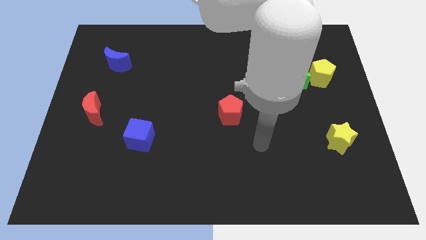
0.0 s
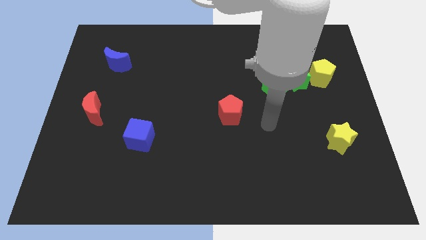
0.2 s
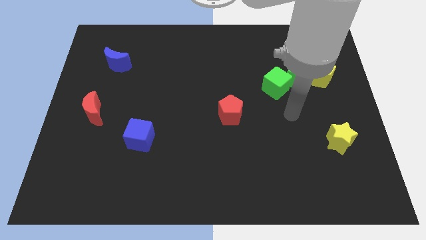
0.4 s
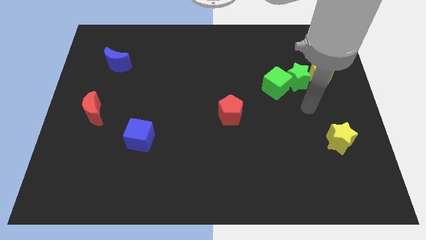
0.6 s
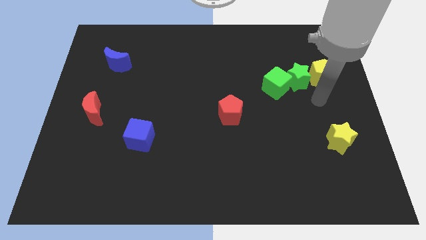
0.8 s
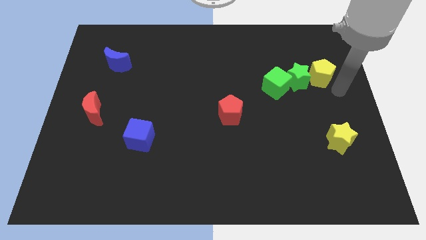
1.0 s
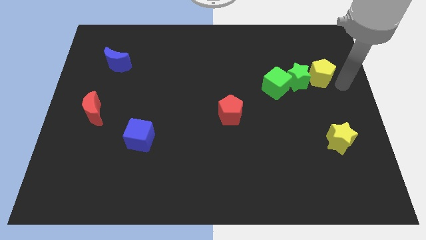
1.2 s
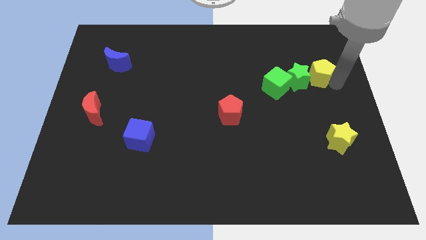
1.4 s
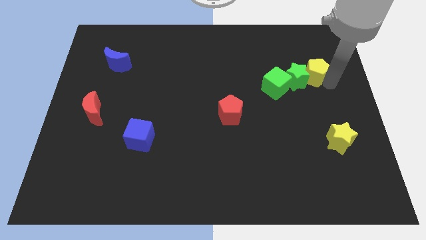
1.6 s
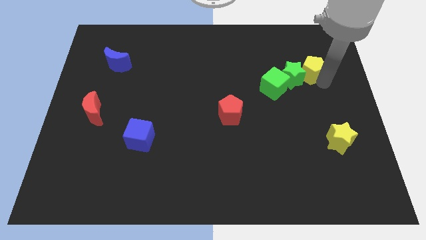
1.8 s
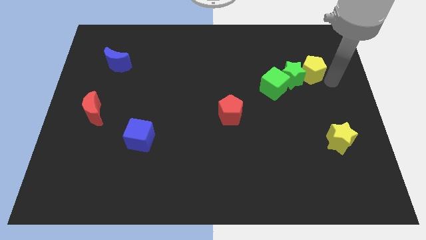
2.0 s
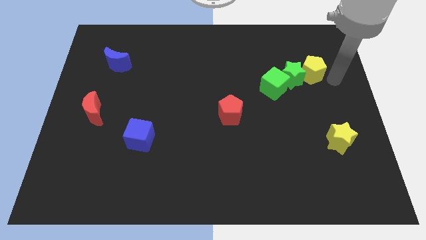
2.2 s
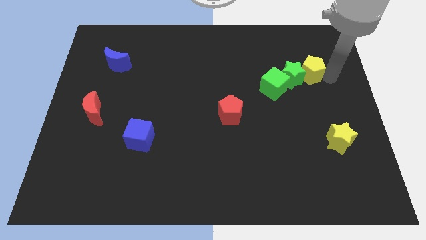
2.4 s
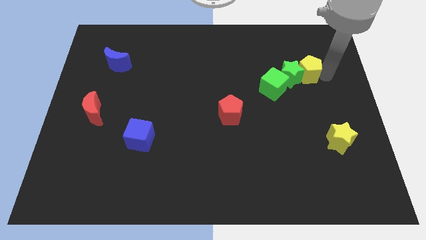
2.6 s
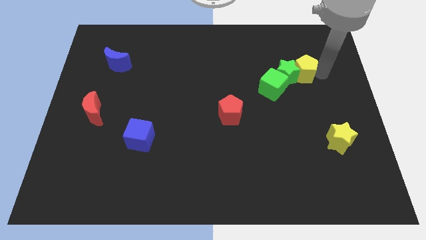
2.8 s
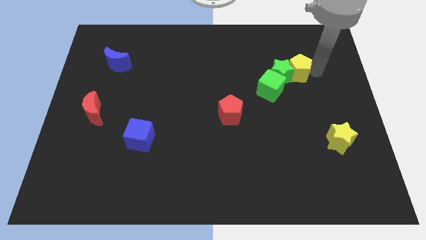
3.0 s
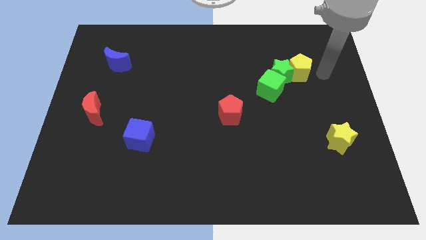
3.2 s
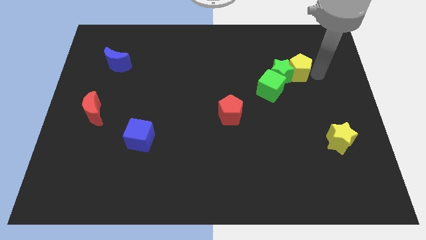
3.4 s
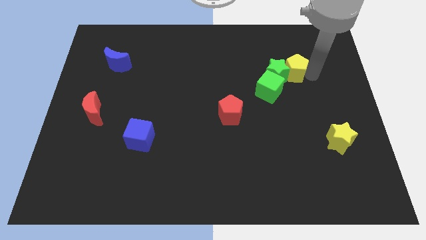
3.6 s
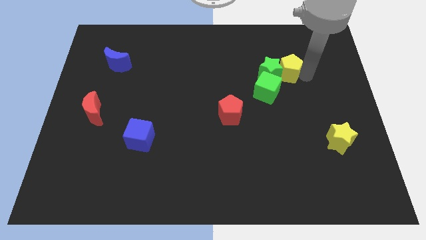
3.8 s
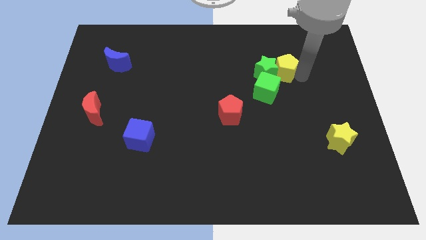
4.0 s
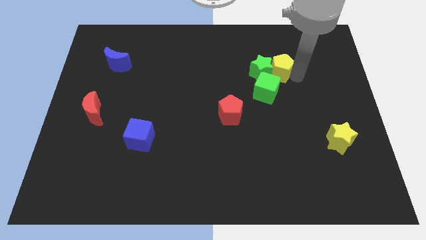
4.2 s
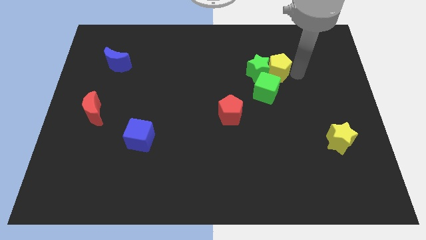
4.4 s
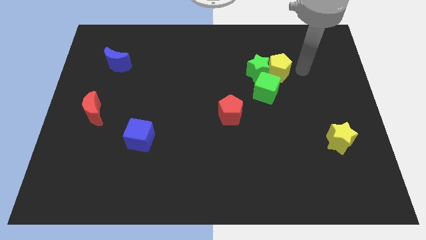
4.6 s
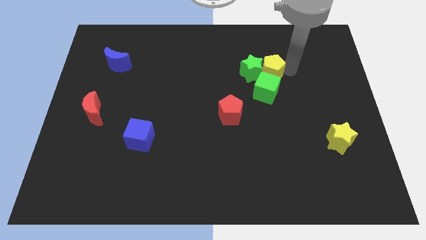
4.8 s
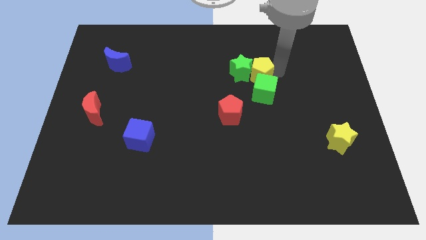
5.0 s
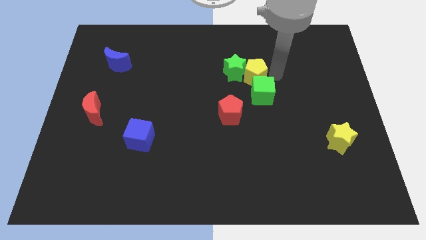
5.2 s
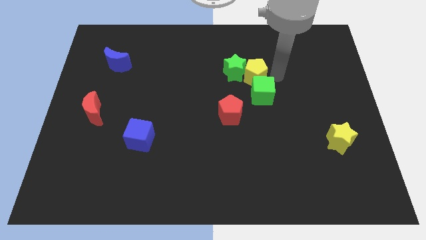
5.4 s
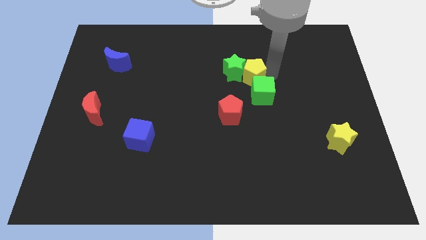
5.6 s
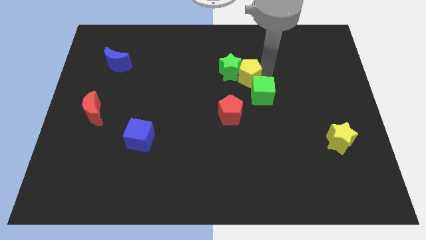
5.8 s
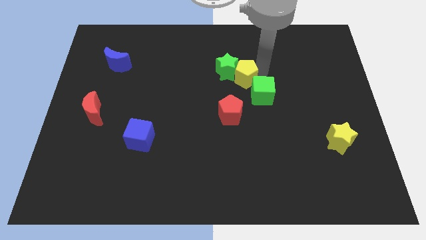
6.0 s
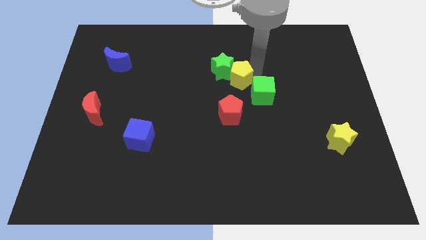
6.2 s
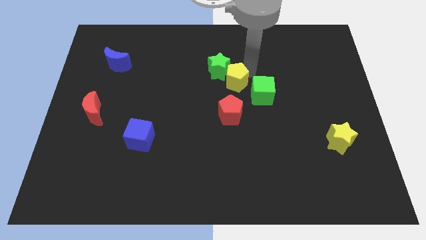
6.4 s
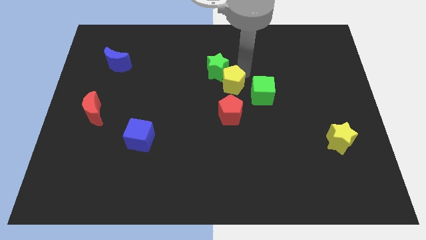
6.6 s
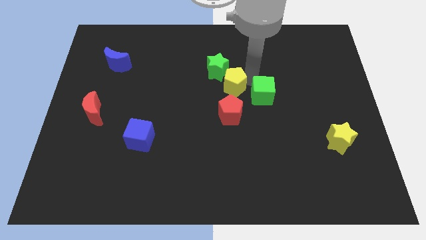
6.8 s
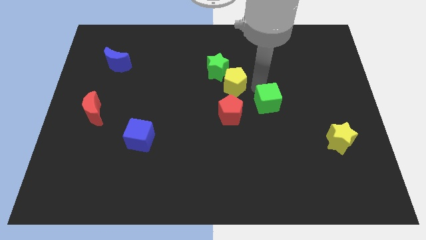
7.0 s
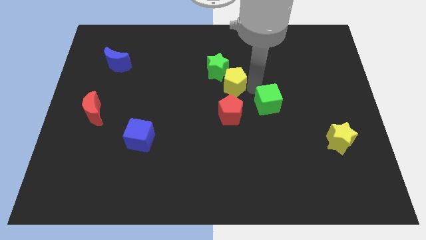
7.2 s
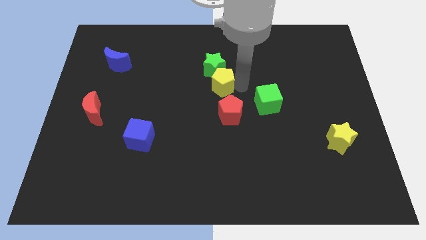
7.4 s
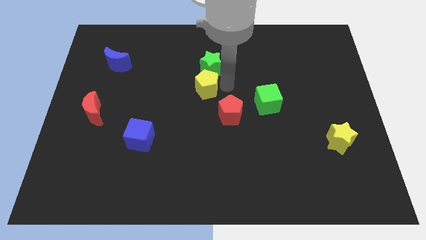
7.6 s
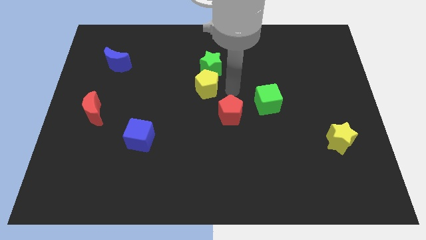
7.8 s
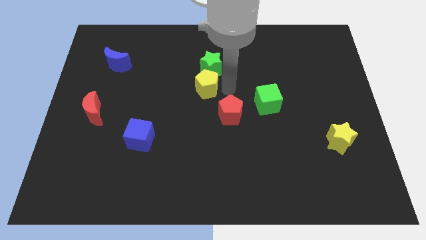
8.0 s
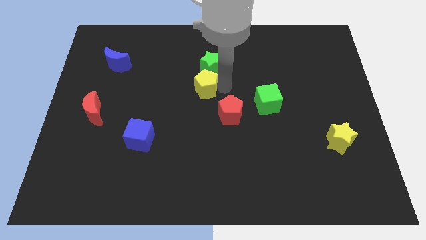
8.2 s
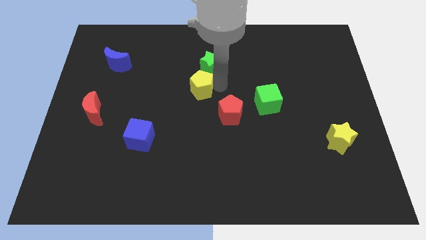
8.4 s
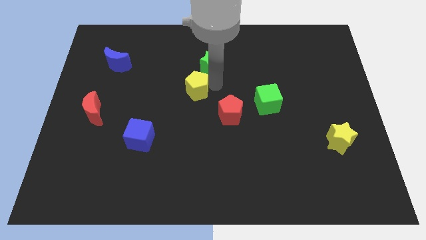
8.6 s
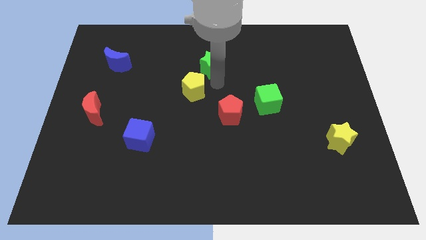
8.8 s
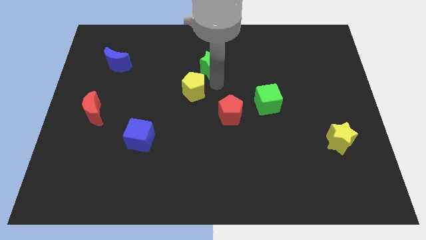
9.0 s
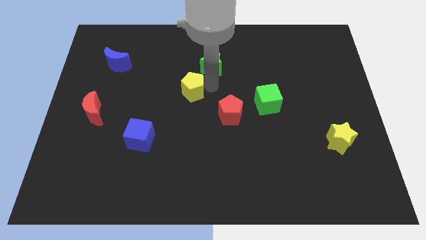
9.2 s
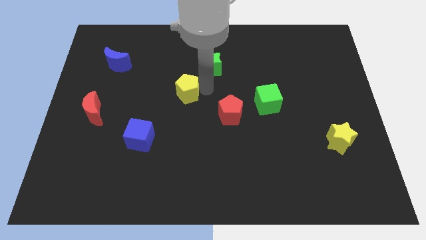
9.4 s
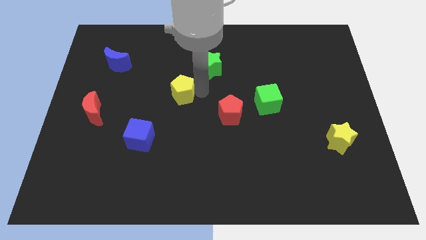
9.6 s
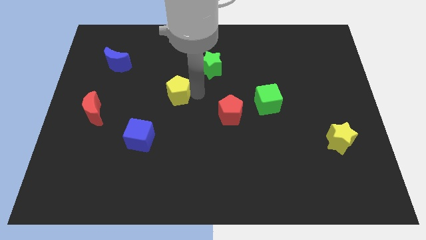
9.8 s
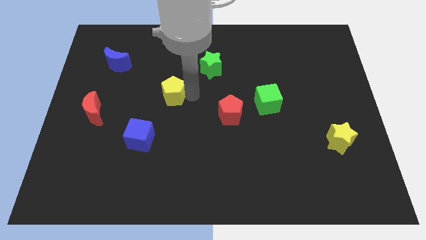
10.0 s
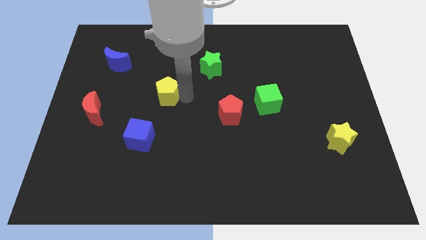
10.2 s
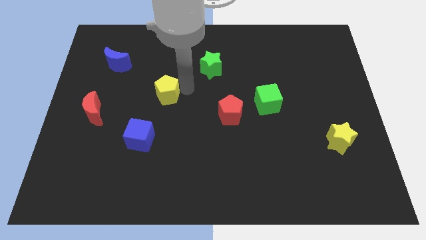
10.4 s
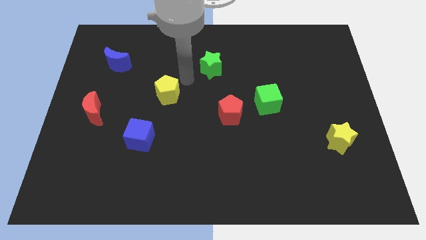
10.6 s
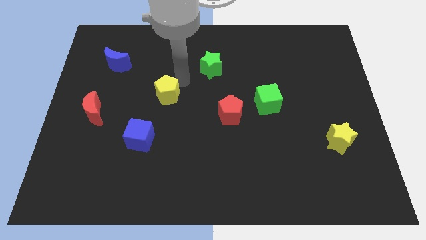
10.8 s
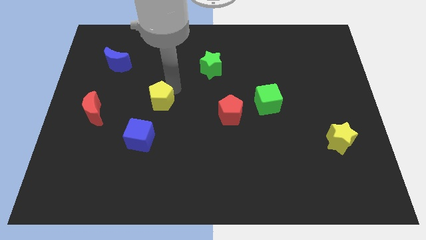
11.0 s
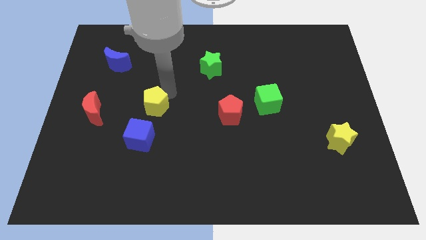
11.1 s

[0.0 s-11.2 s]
put the yellow pentagon right of the red moon

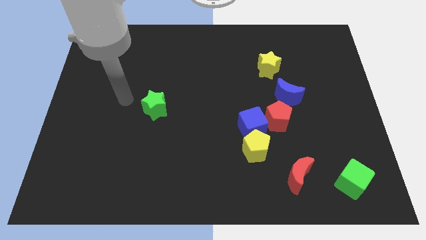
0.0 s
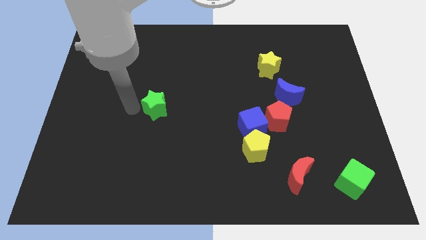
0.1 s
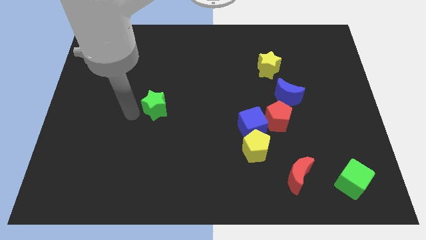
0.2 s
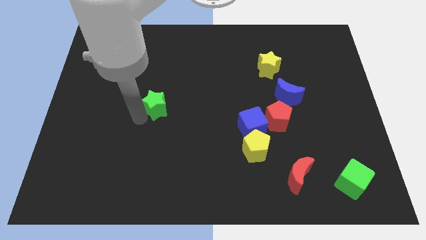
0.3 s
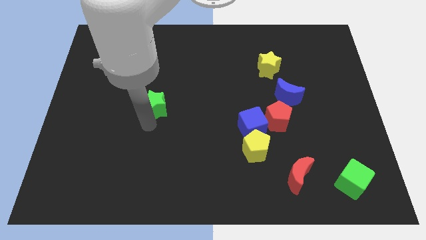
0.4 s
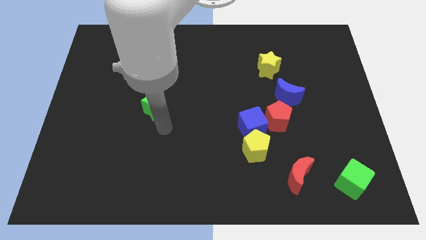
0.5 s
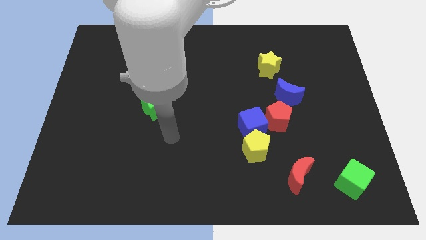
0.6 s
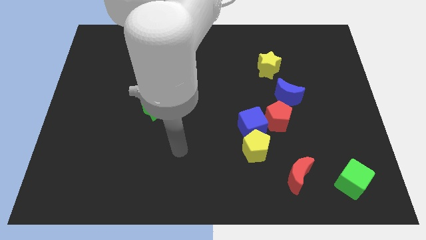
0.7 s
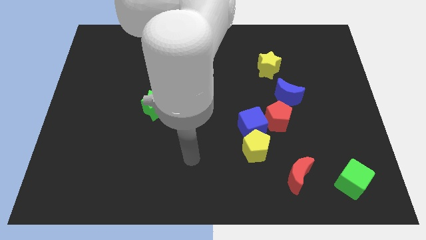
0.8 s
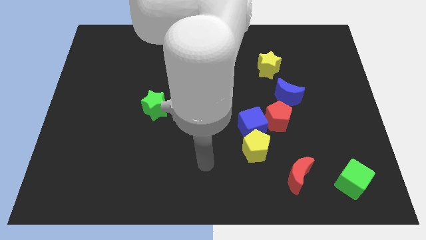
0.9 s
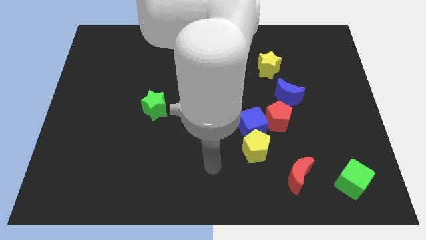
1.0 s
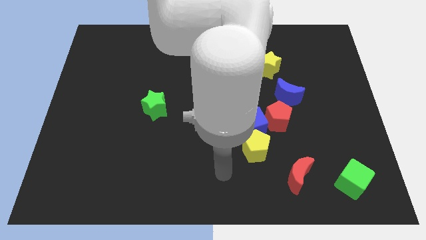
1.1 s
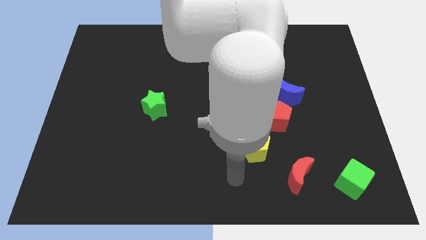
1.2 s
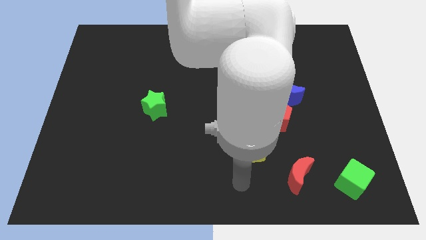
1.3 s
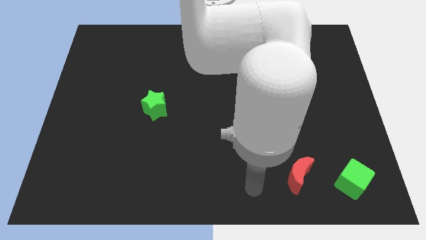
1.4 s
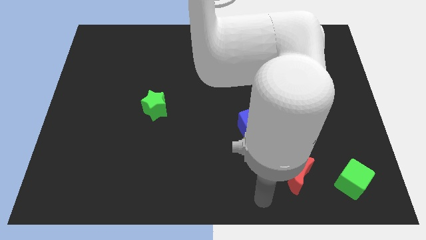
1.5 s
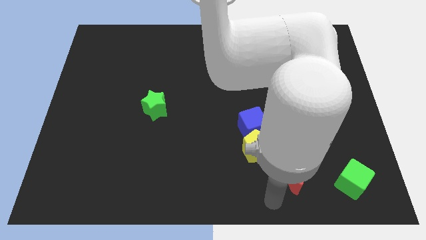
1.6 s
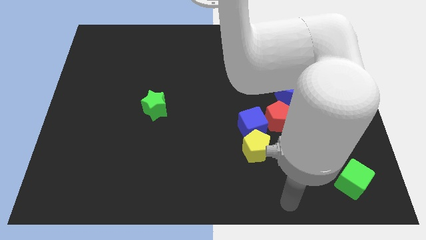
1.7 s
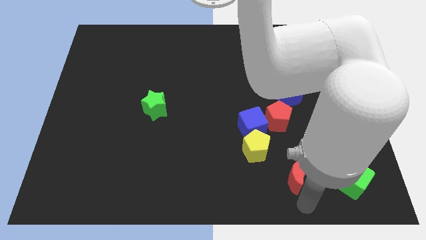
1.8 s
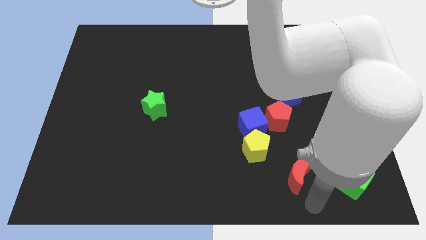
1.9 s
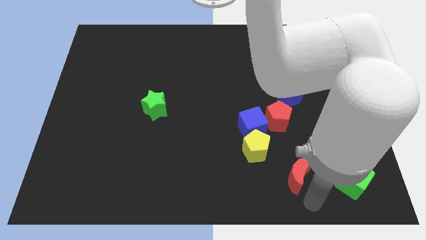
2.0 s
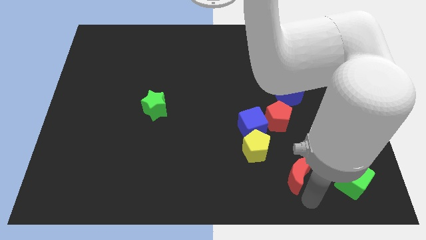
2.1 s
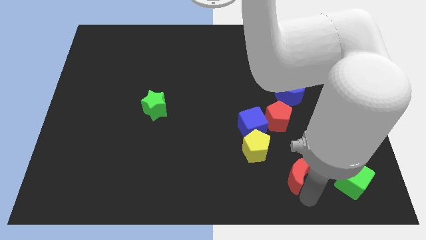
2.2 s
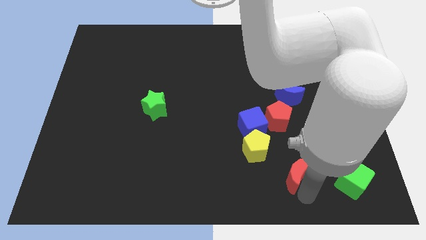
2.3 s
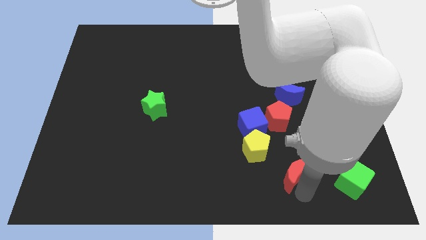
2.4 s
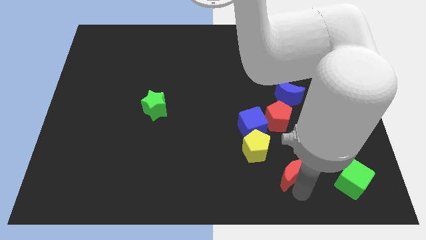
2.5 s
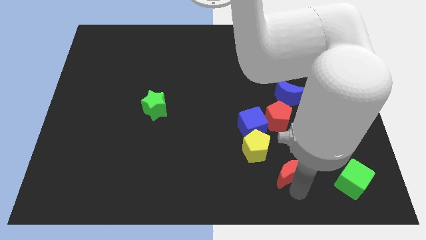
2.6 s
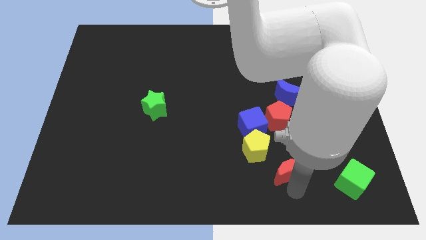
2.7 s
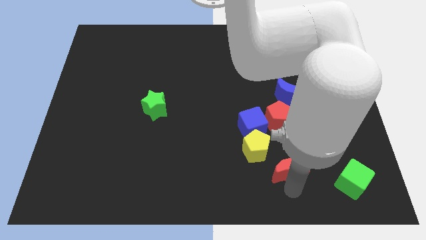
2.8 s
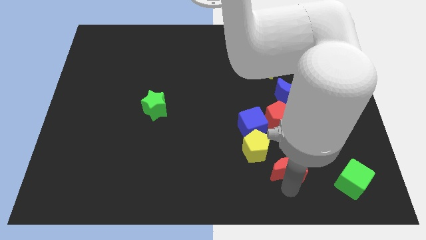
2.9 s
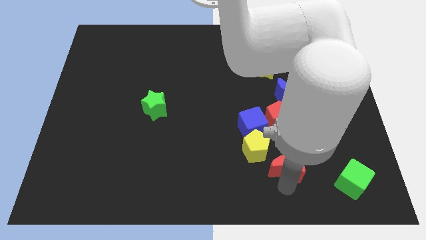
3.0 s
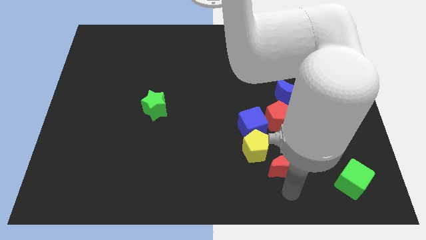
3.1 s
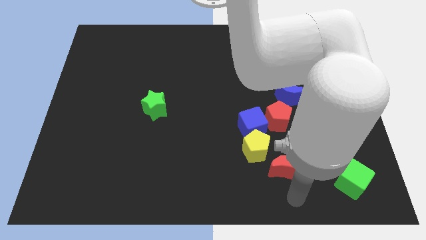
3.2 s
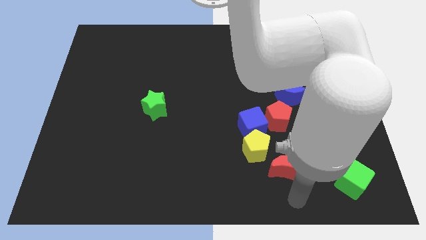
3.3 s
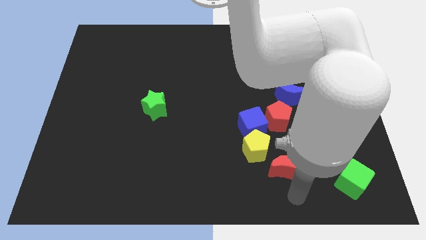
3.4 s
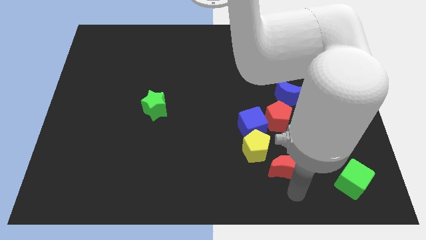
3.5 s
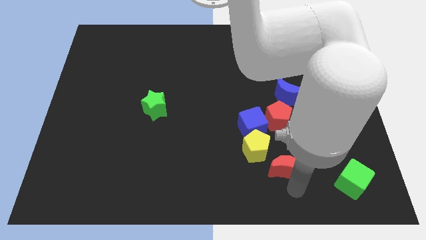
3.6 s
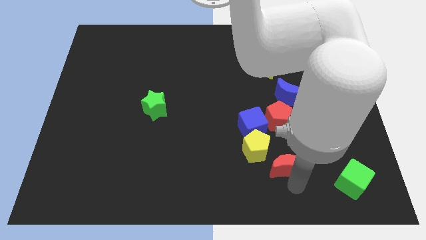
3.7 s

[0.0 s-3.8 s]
slide the red moon to the bottom right of the blue cube
